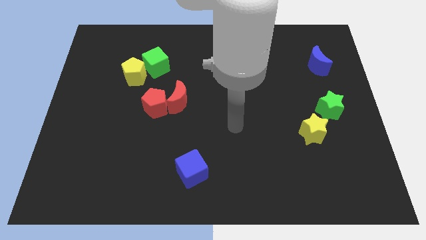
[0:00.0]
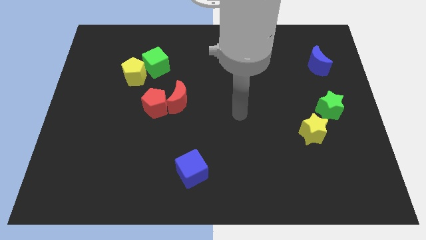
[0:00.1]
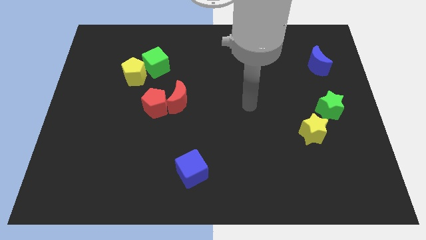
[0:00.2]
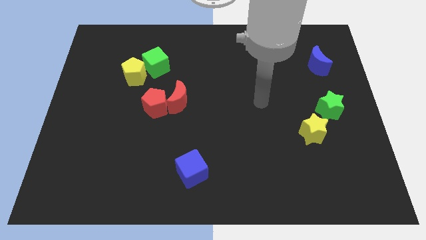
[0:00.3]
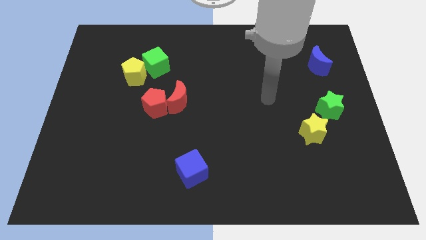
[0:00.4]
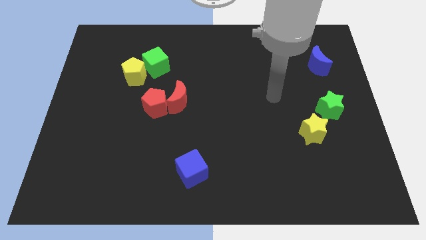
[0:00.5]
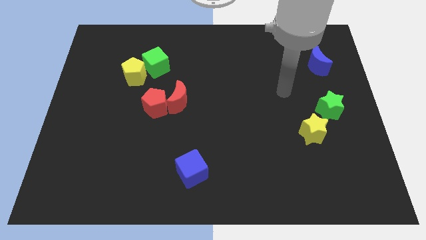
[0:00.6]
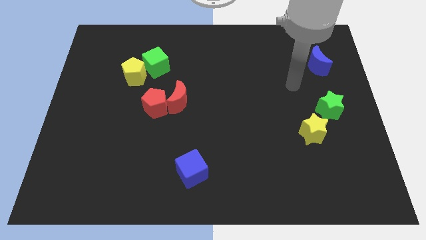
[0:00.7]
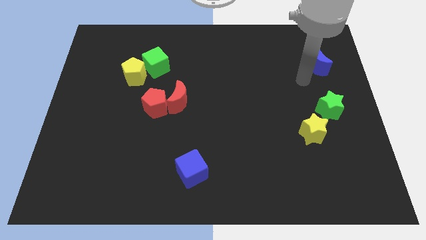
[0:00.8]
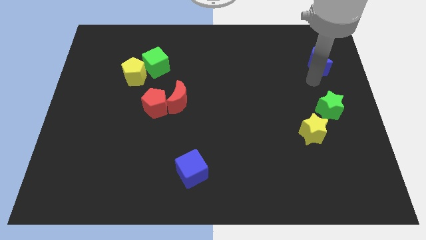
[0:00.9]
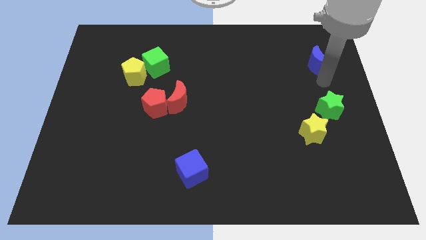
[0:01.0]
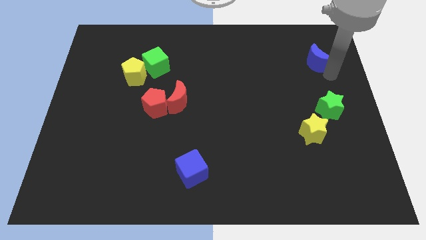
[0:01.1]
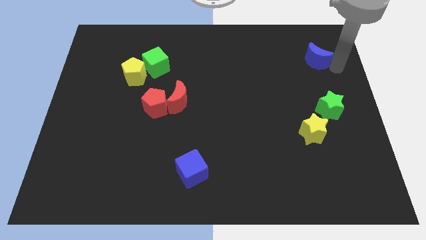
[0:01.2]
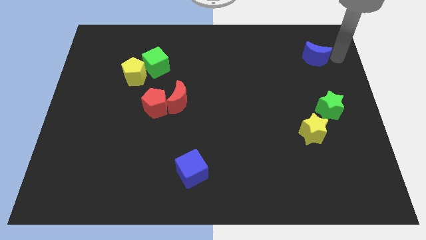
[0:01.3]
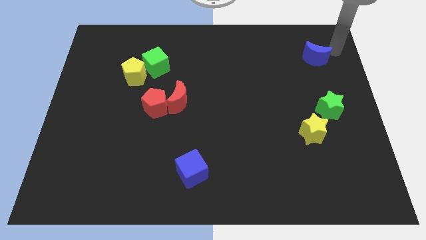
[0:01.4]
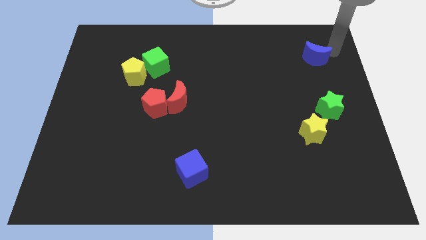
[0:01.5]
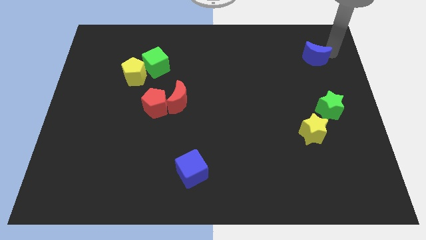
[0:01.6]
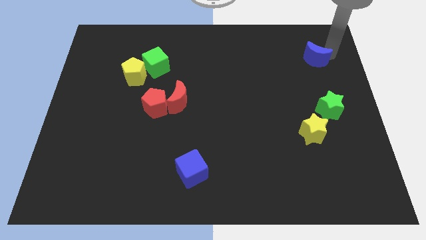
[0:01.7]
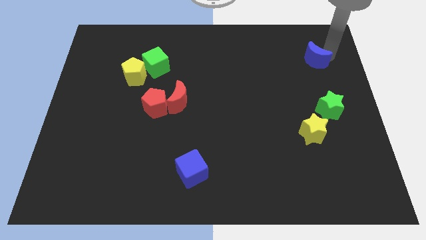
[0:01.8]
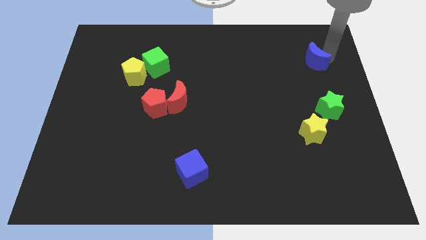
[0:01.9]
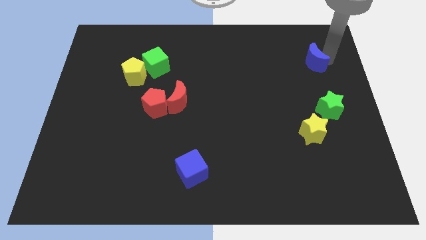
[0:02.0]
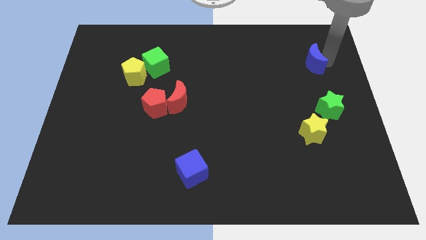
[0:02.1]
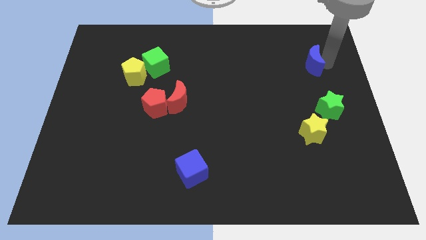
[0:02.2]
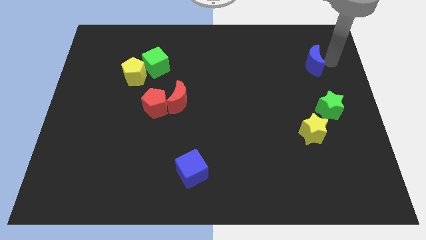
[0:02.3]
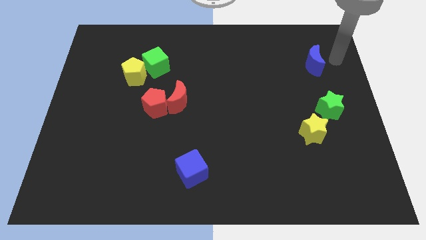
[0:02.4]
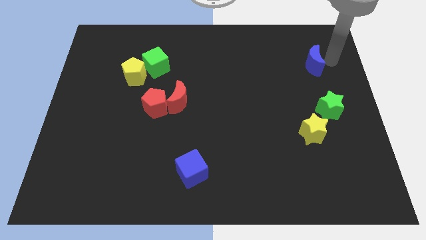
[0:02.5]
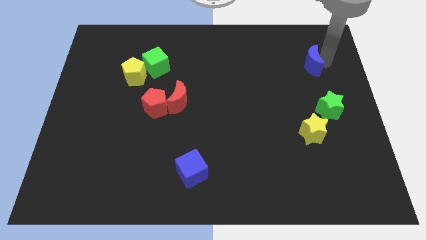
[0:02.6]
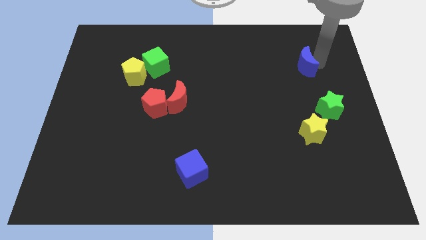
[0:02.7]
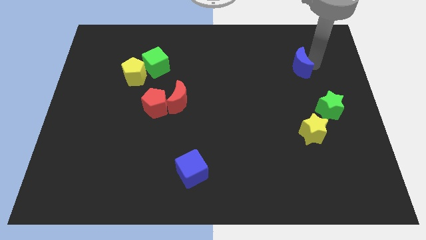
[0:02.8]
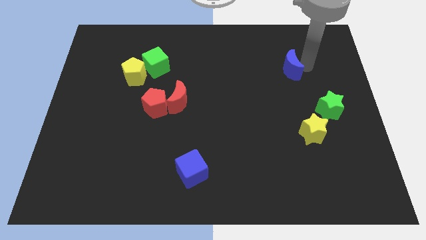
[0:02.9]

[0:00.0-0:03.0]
slightly slide the blue moon left

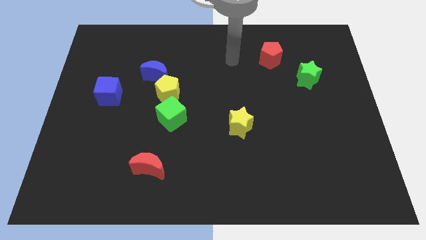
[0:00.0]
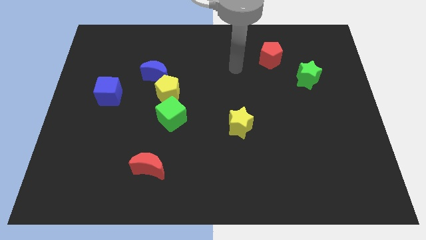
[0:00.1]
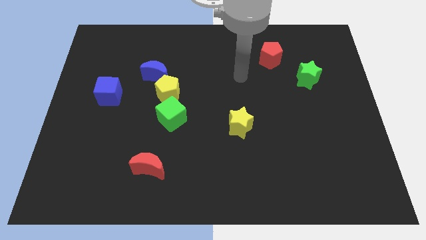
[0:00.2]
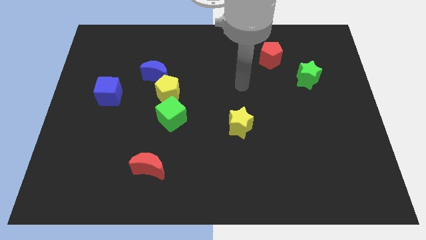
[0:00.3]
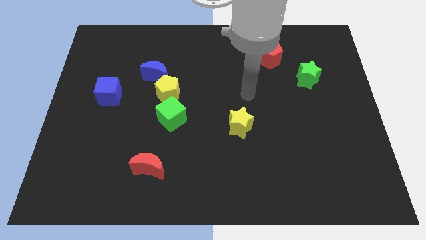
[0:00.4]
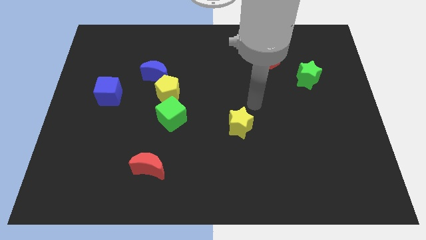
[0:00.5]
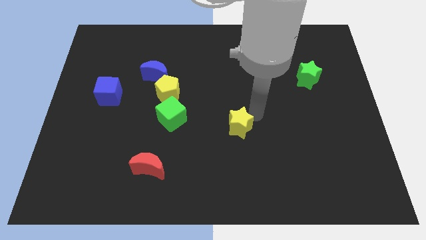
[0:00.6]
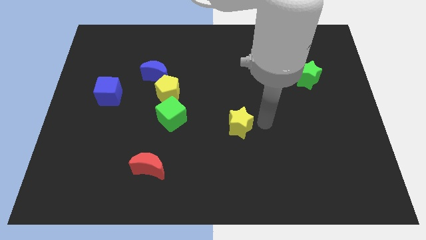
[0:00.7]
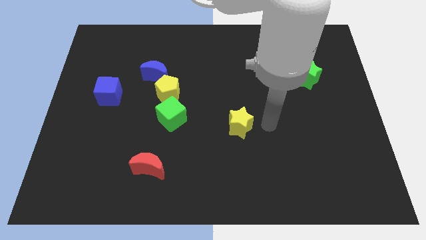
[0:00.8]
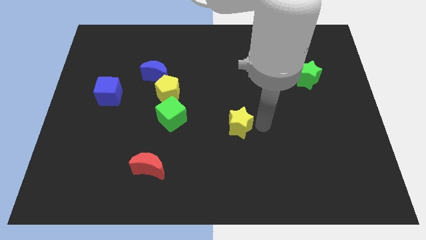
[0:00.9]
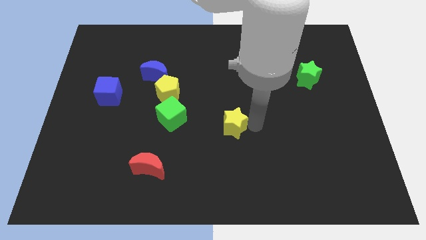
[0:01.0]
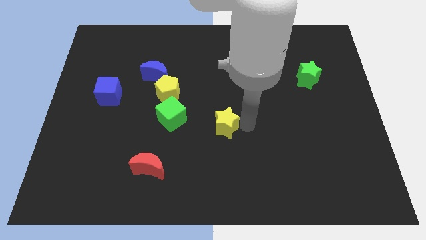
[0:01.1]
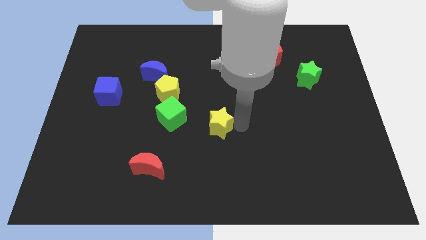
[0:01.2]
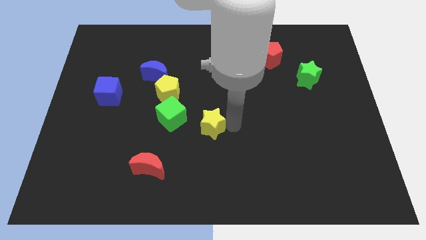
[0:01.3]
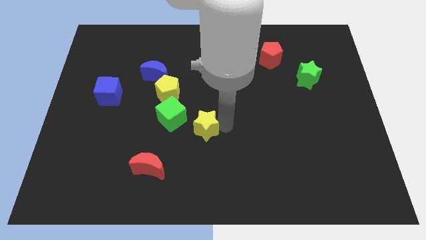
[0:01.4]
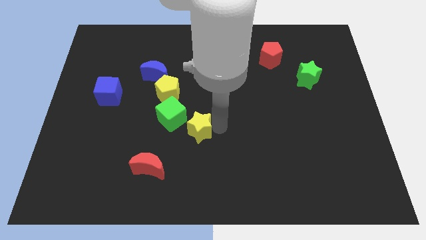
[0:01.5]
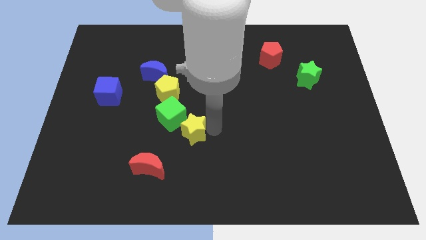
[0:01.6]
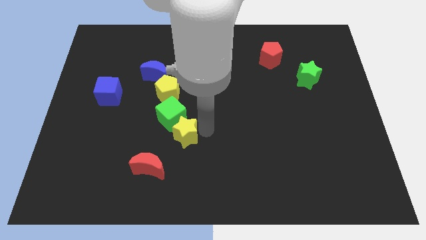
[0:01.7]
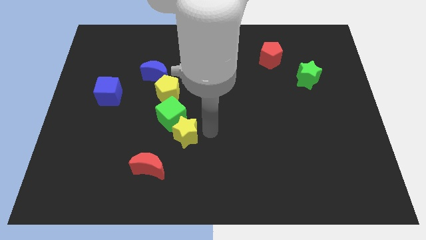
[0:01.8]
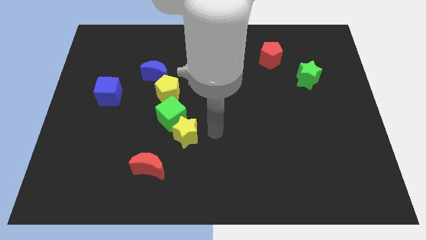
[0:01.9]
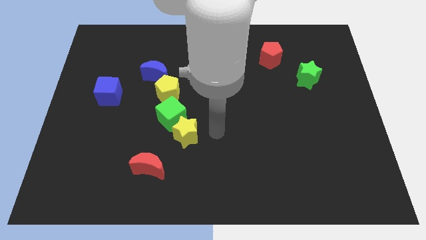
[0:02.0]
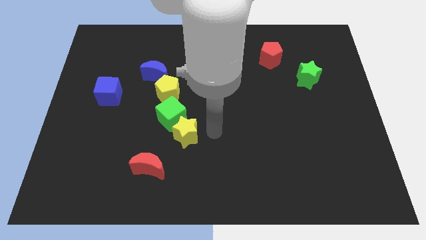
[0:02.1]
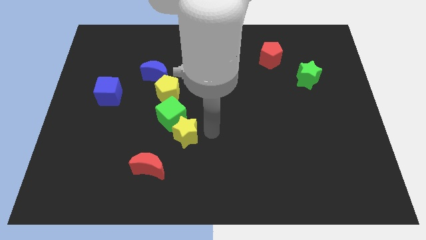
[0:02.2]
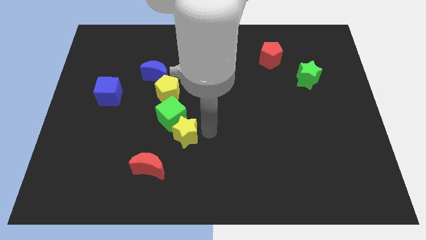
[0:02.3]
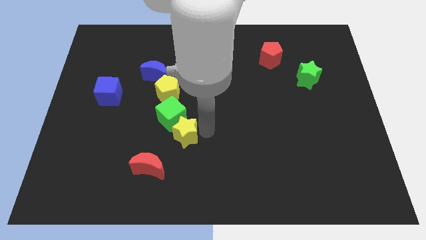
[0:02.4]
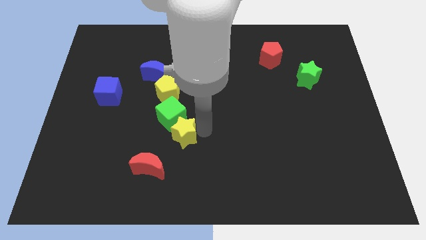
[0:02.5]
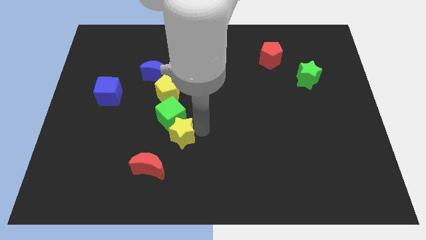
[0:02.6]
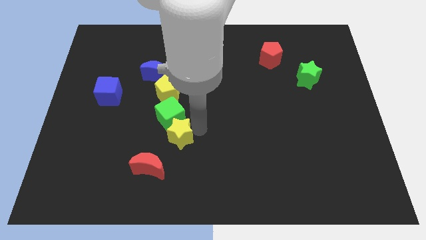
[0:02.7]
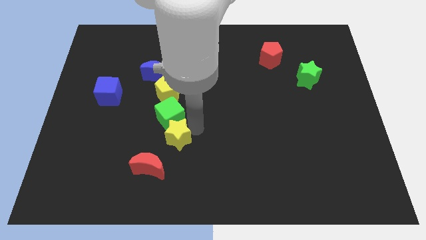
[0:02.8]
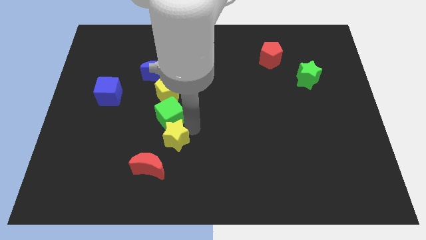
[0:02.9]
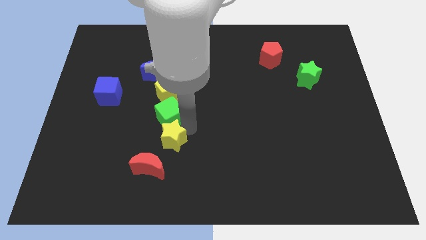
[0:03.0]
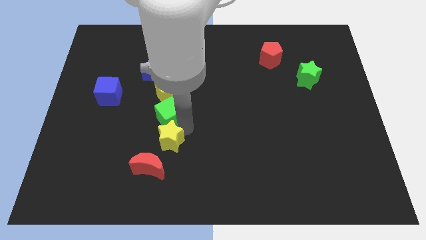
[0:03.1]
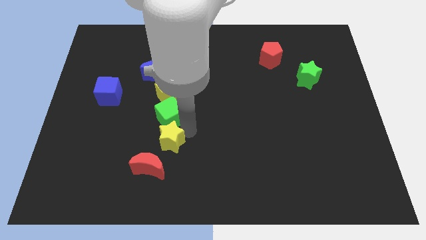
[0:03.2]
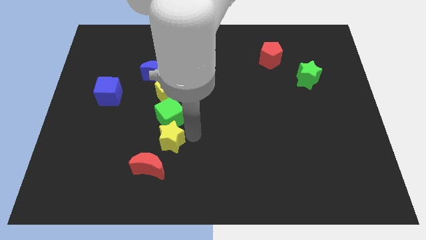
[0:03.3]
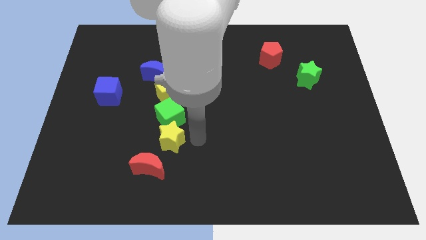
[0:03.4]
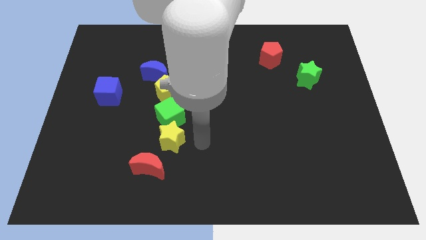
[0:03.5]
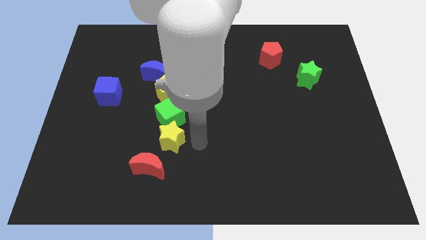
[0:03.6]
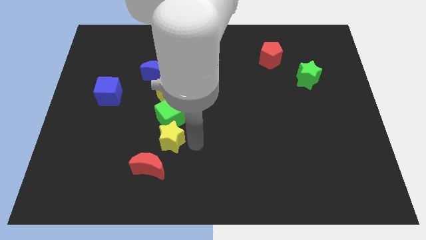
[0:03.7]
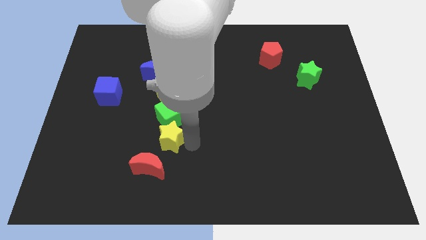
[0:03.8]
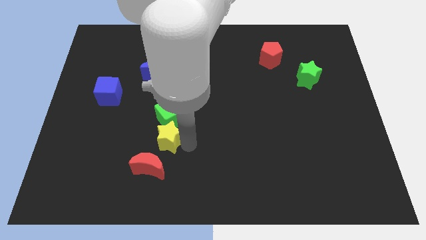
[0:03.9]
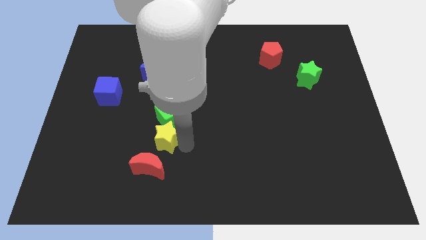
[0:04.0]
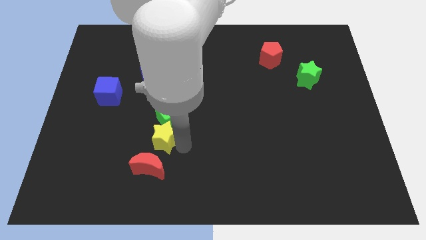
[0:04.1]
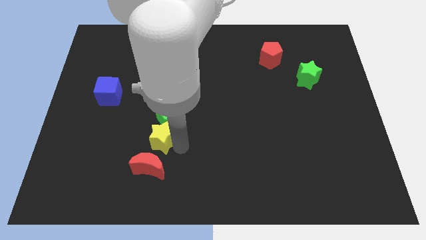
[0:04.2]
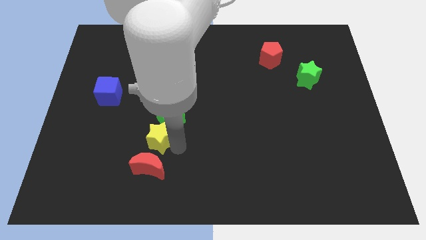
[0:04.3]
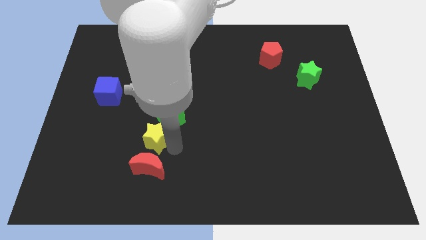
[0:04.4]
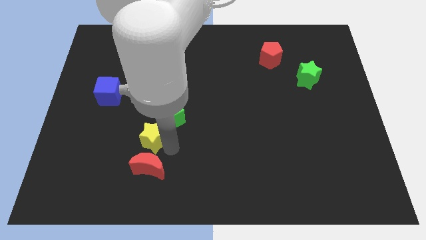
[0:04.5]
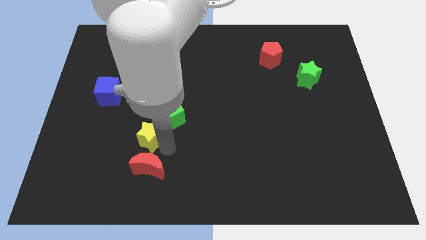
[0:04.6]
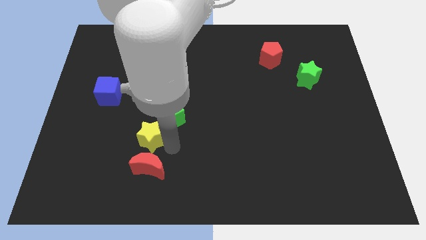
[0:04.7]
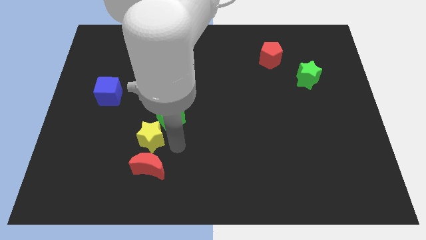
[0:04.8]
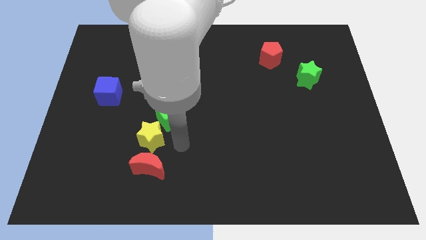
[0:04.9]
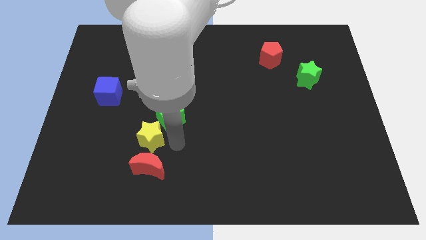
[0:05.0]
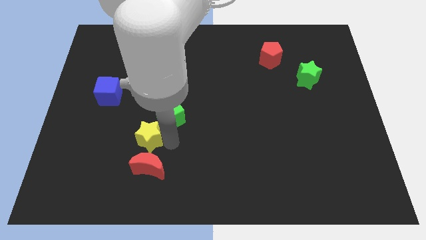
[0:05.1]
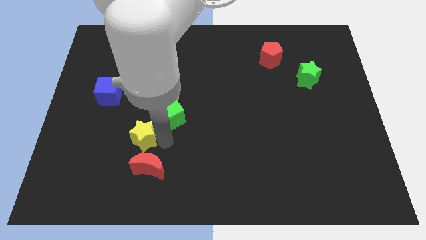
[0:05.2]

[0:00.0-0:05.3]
push the yellow star left
